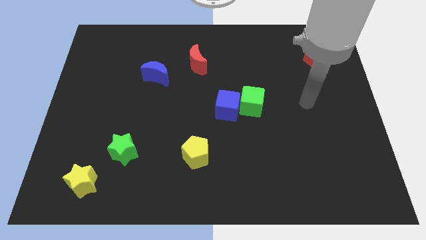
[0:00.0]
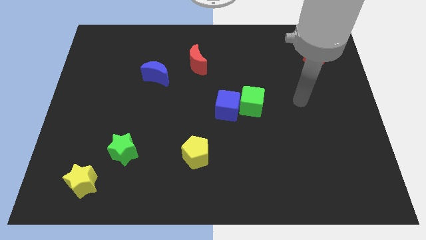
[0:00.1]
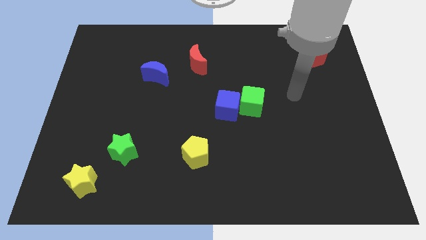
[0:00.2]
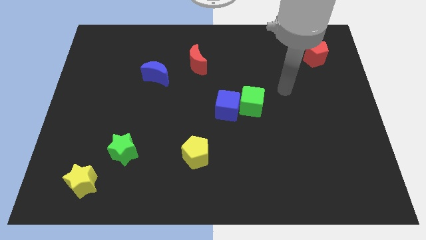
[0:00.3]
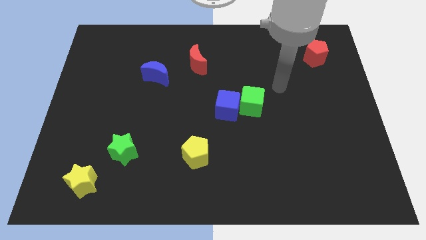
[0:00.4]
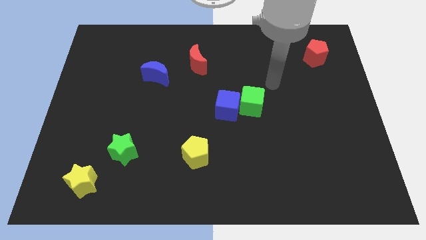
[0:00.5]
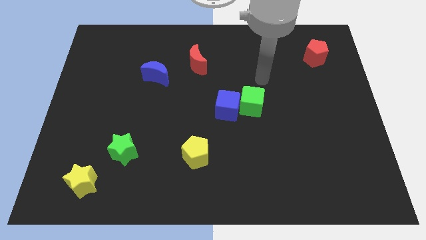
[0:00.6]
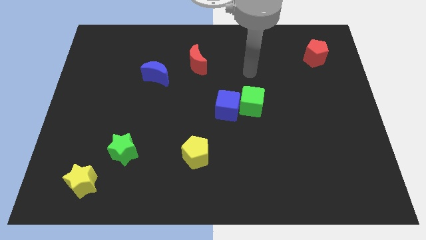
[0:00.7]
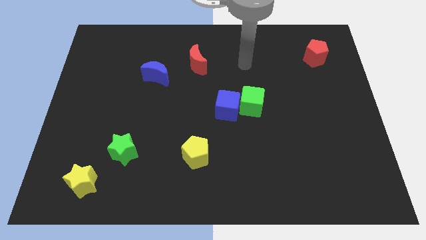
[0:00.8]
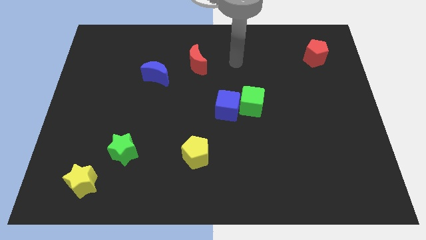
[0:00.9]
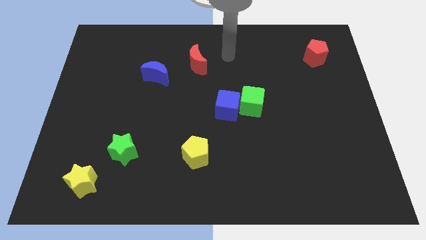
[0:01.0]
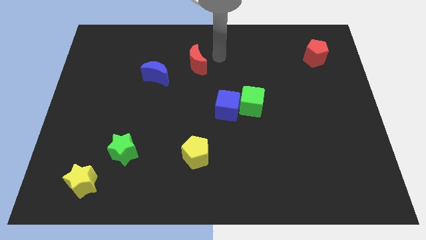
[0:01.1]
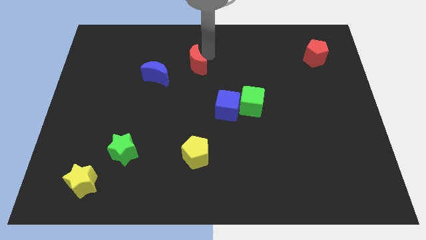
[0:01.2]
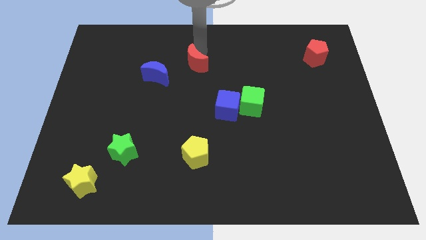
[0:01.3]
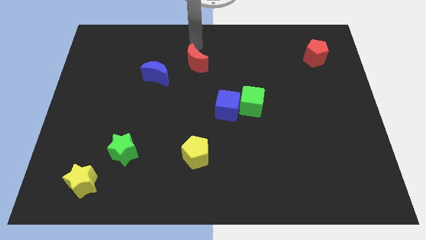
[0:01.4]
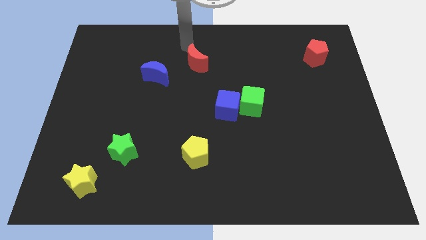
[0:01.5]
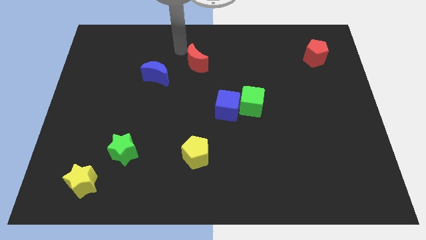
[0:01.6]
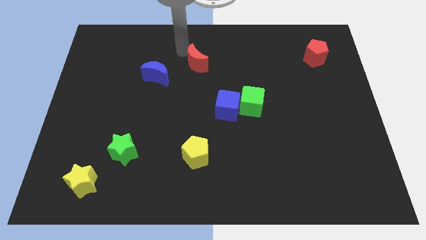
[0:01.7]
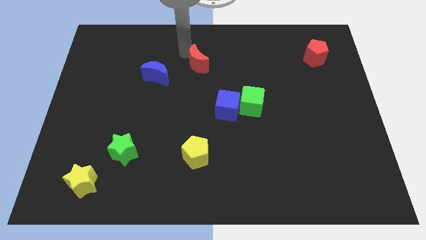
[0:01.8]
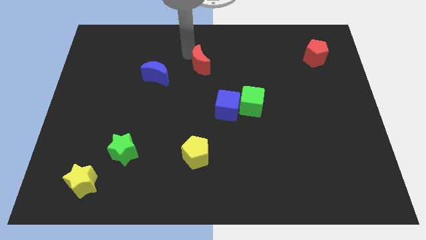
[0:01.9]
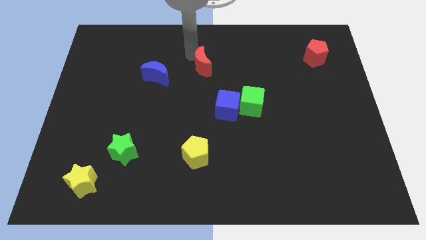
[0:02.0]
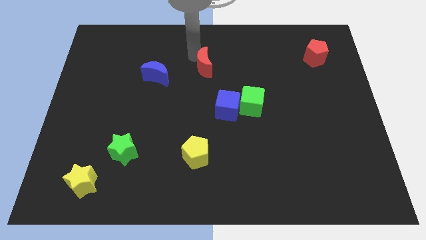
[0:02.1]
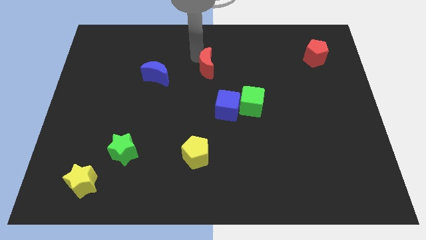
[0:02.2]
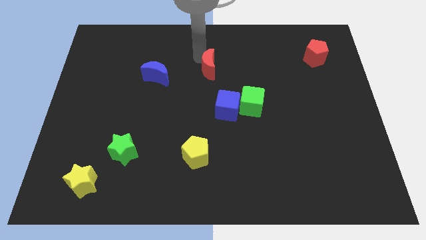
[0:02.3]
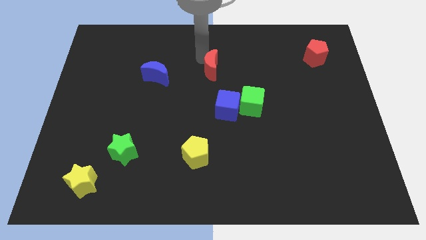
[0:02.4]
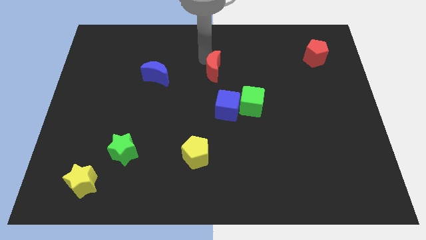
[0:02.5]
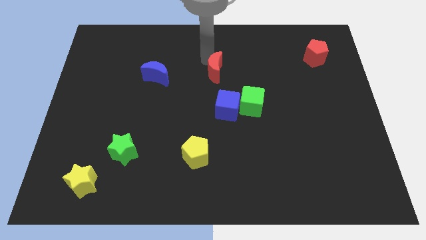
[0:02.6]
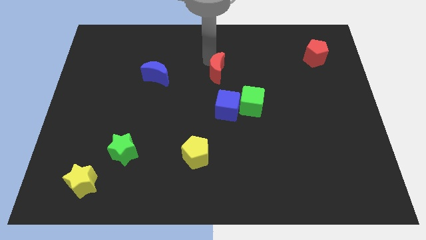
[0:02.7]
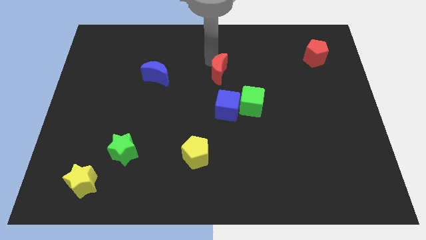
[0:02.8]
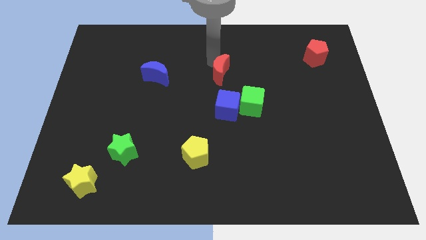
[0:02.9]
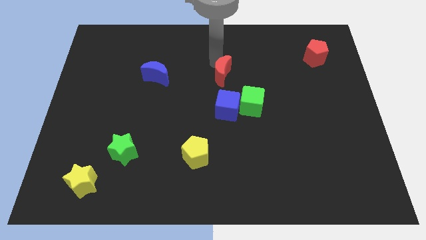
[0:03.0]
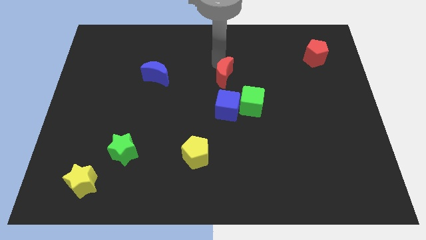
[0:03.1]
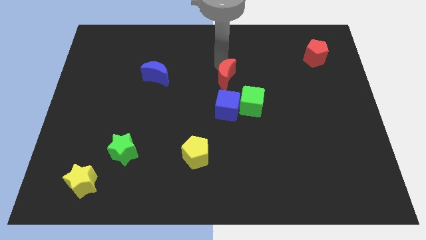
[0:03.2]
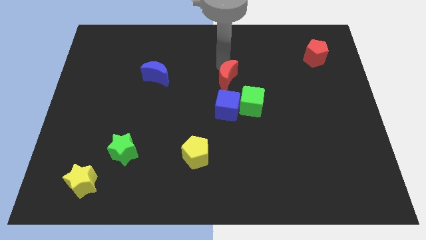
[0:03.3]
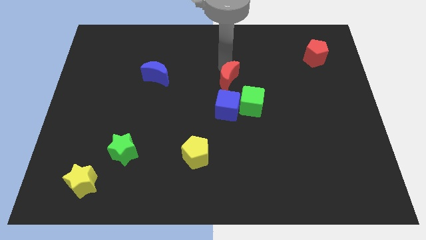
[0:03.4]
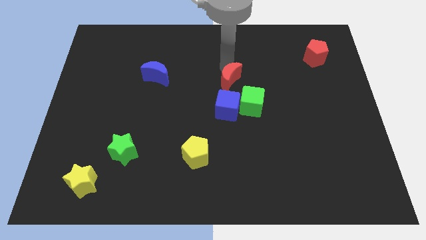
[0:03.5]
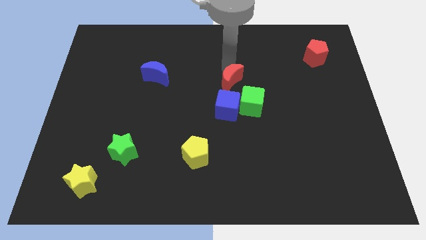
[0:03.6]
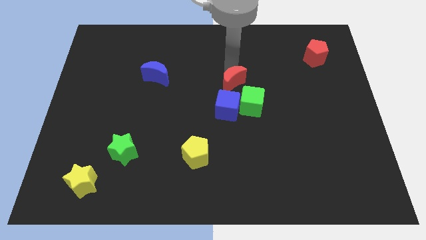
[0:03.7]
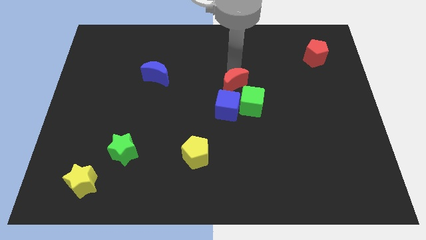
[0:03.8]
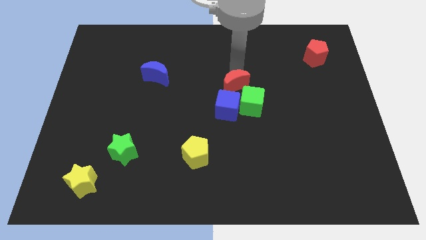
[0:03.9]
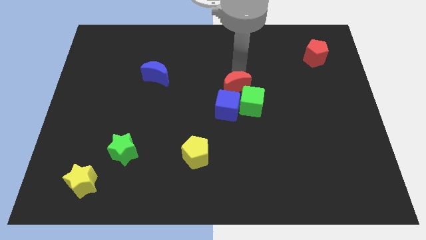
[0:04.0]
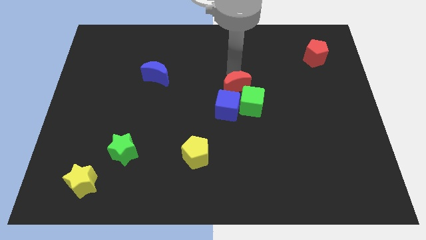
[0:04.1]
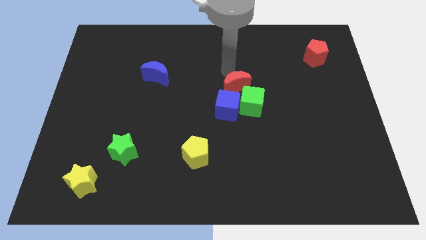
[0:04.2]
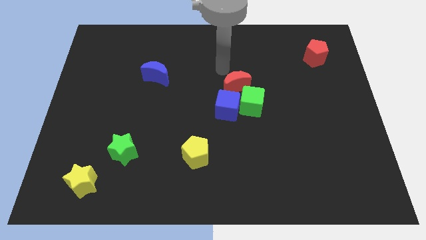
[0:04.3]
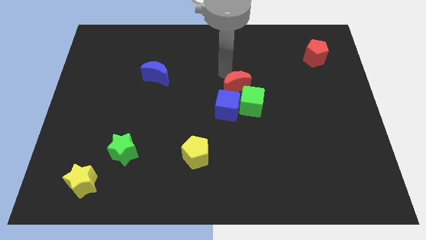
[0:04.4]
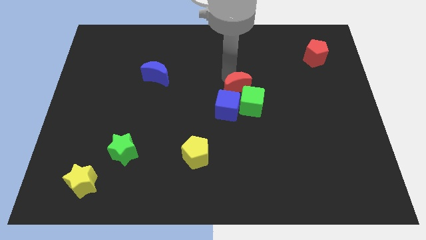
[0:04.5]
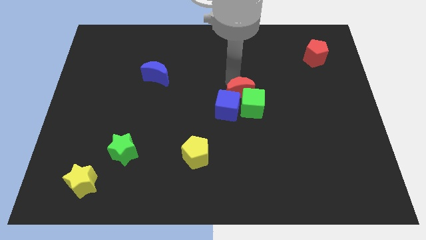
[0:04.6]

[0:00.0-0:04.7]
slide the red moon close to the green cube

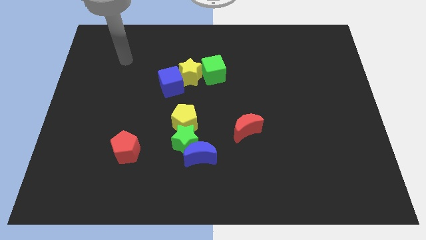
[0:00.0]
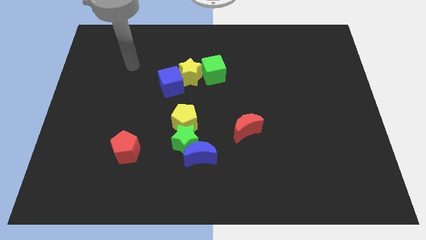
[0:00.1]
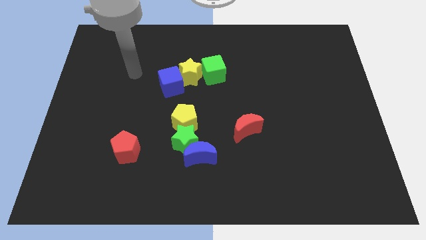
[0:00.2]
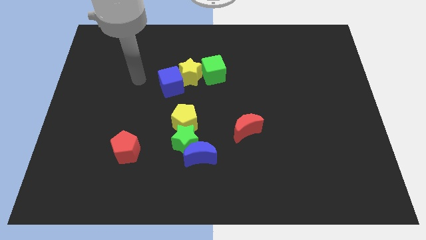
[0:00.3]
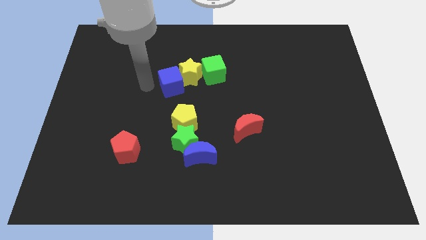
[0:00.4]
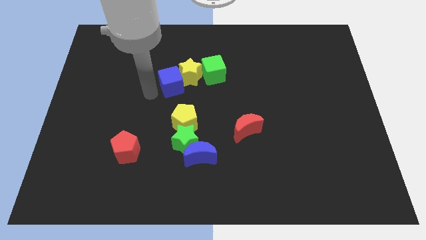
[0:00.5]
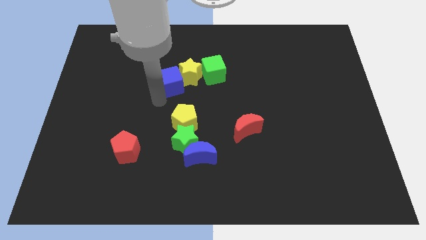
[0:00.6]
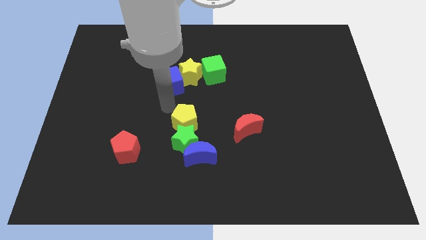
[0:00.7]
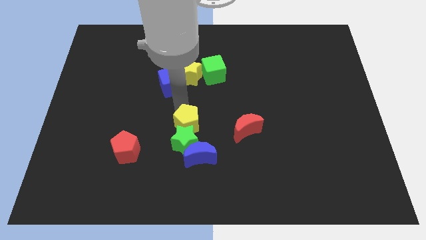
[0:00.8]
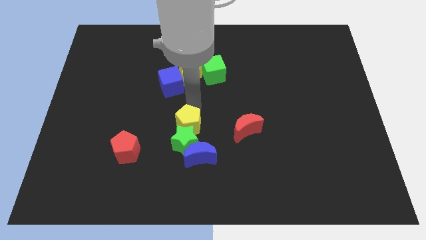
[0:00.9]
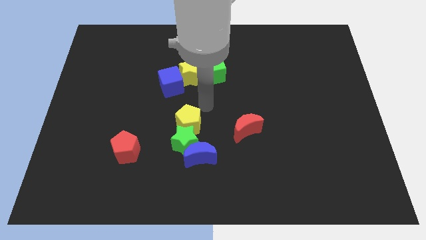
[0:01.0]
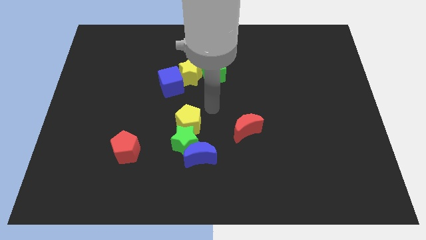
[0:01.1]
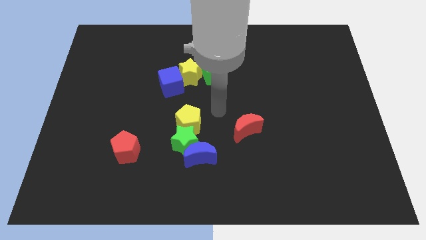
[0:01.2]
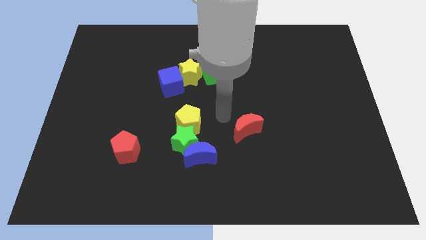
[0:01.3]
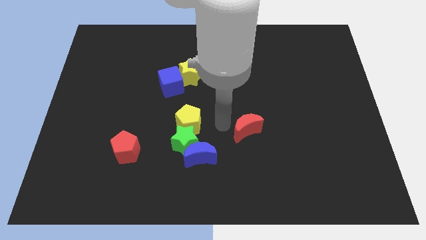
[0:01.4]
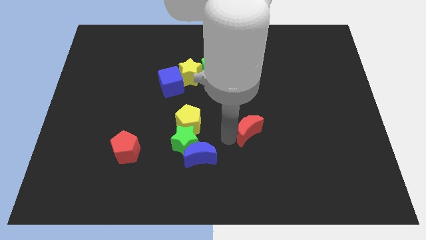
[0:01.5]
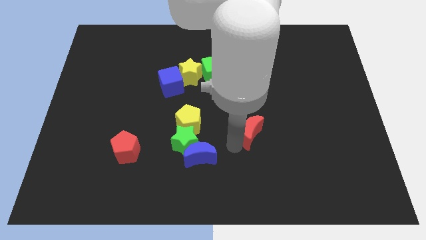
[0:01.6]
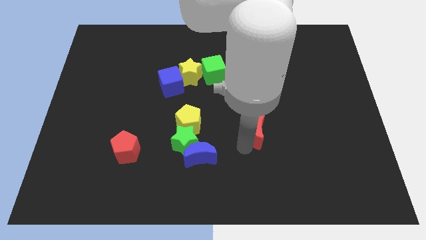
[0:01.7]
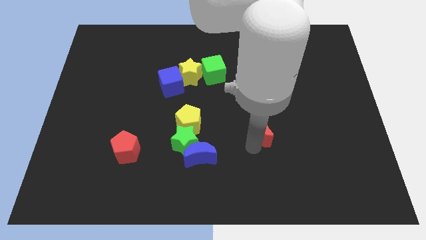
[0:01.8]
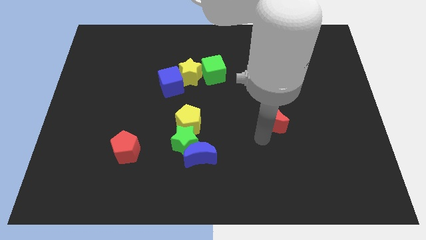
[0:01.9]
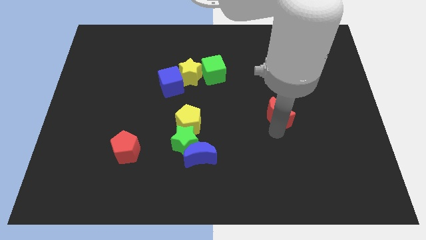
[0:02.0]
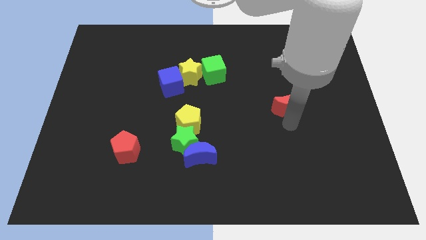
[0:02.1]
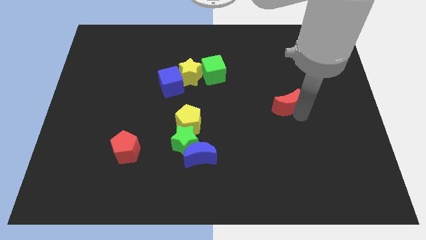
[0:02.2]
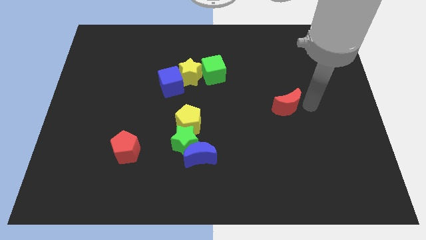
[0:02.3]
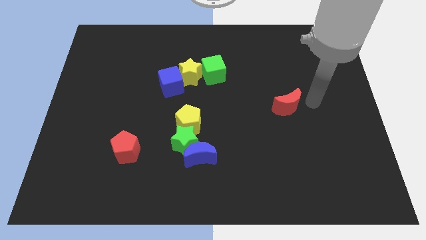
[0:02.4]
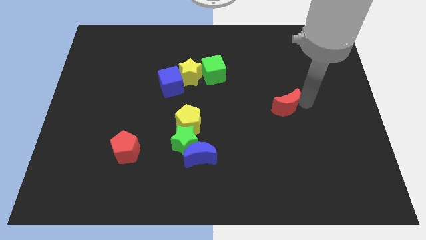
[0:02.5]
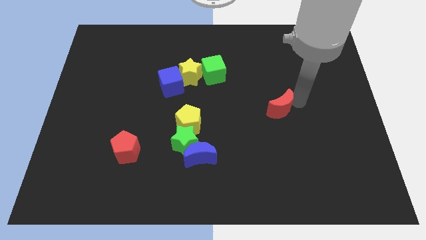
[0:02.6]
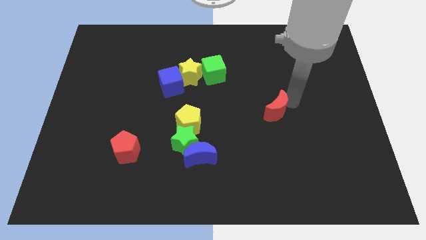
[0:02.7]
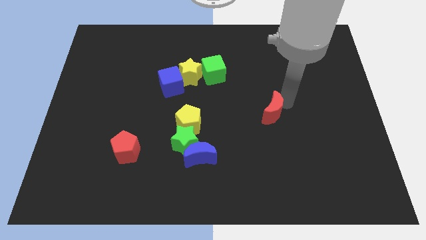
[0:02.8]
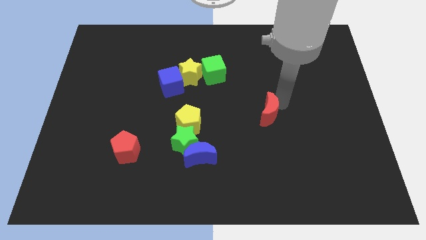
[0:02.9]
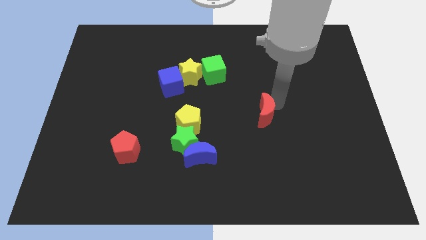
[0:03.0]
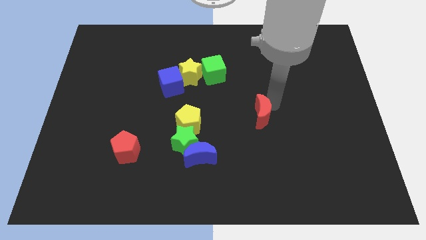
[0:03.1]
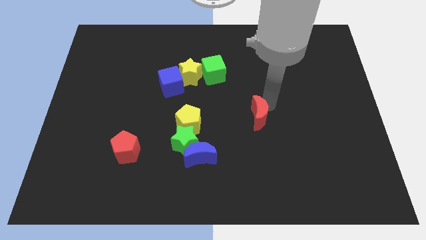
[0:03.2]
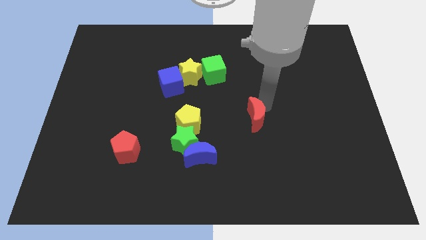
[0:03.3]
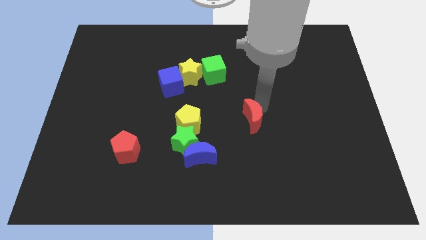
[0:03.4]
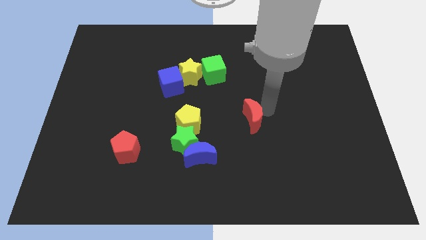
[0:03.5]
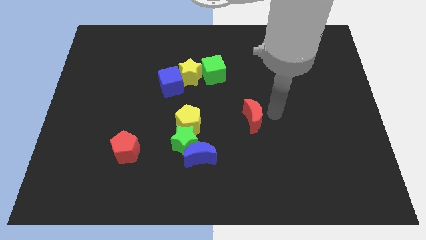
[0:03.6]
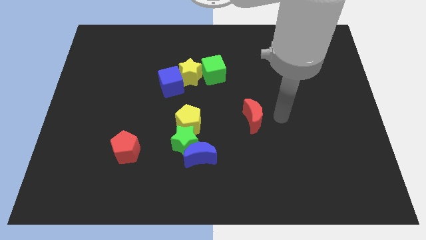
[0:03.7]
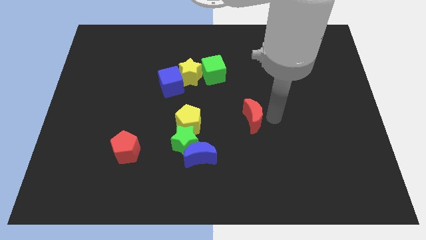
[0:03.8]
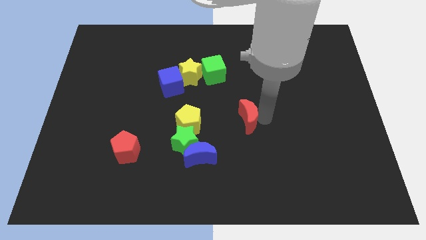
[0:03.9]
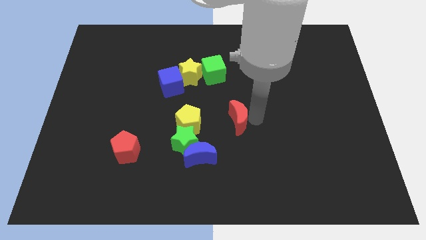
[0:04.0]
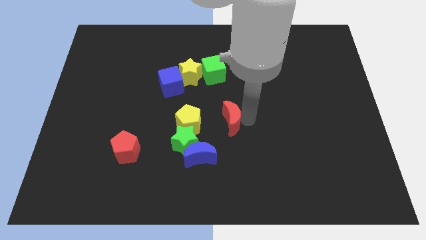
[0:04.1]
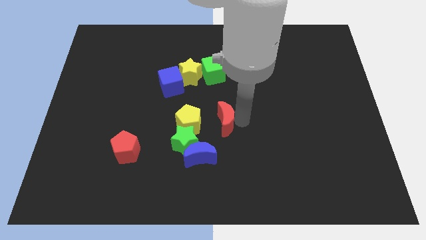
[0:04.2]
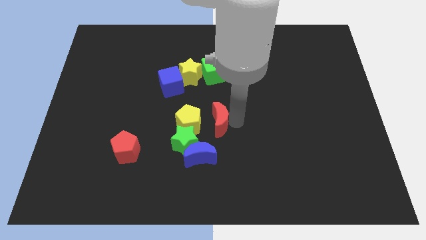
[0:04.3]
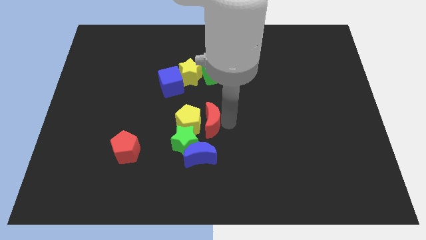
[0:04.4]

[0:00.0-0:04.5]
put the red moon close to the yellow pentagon
